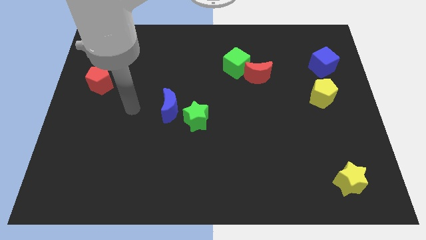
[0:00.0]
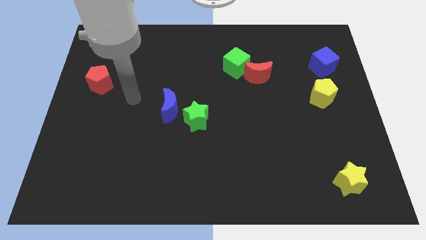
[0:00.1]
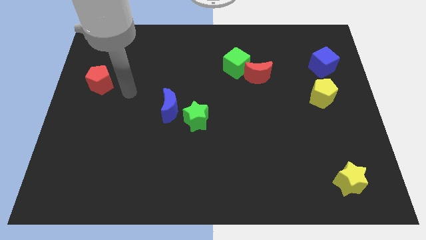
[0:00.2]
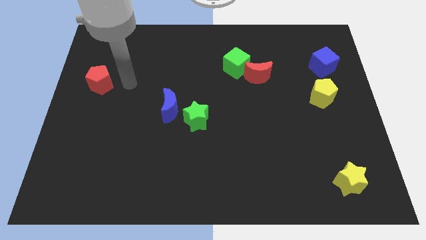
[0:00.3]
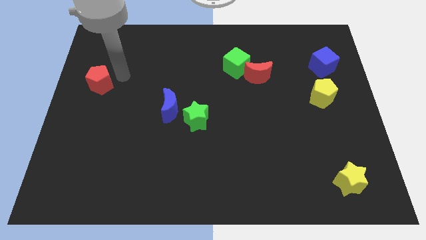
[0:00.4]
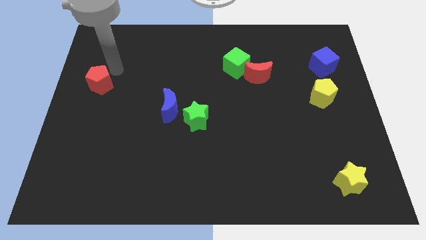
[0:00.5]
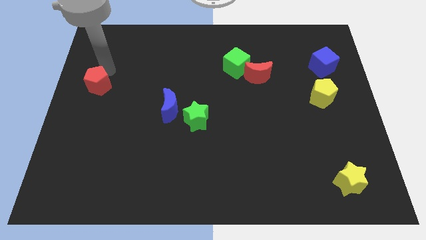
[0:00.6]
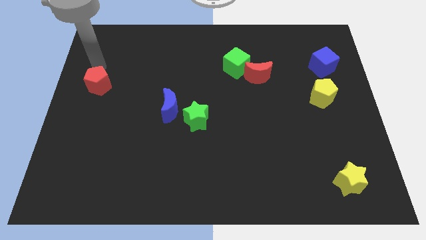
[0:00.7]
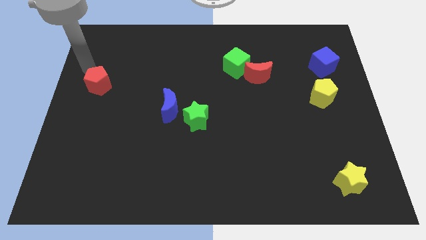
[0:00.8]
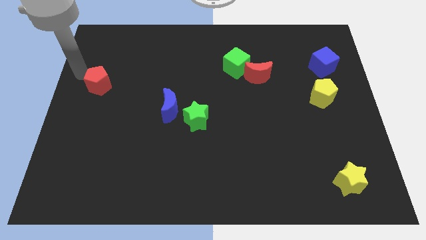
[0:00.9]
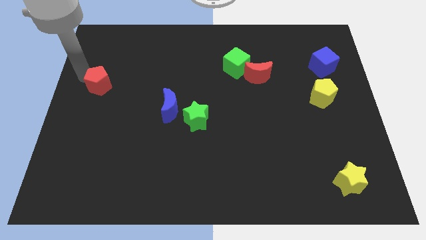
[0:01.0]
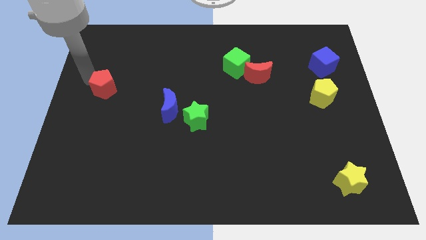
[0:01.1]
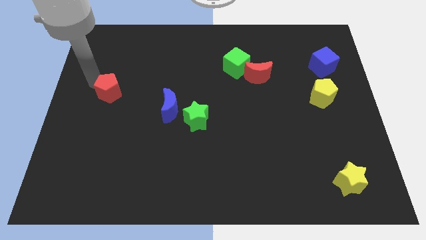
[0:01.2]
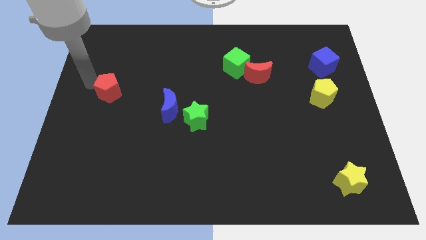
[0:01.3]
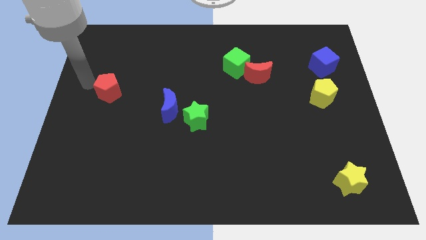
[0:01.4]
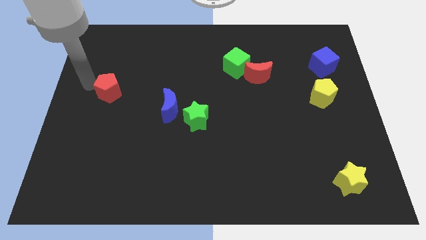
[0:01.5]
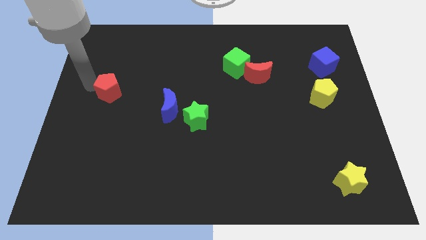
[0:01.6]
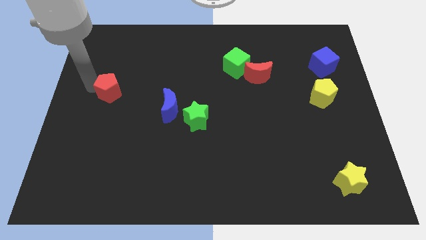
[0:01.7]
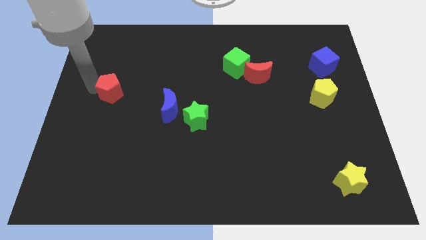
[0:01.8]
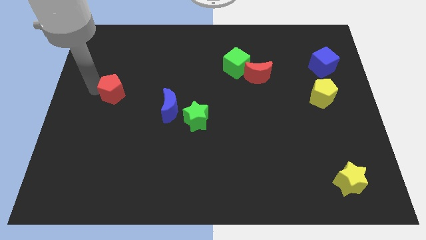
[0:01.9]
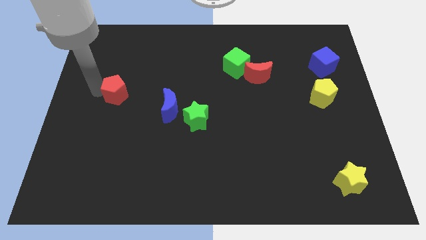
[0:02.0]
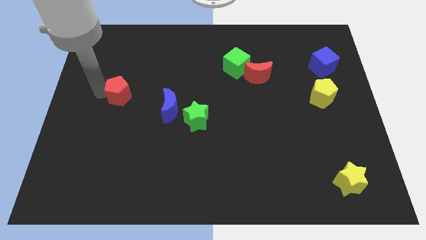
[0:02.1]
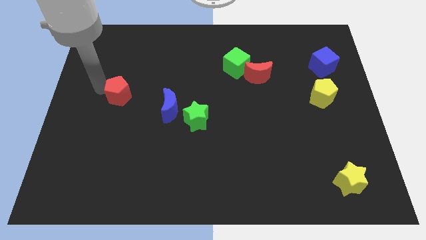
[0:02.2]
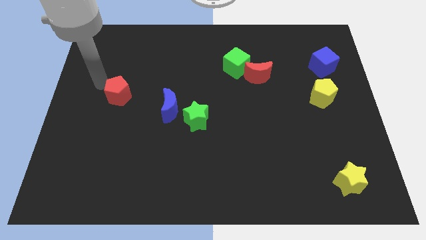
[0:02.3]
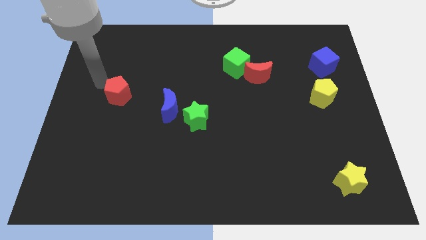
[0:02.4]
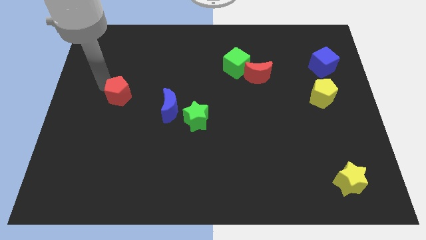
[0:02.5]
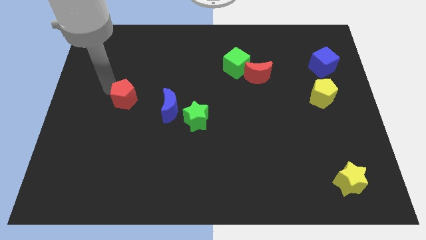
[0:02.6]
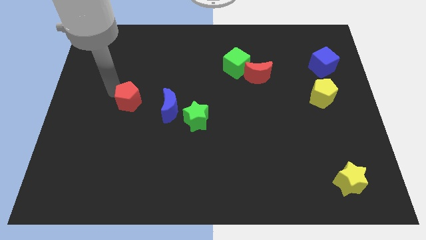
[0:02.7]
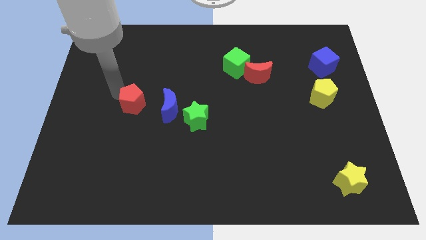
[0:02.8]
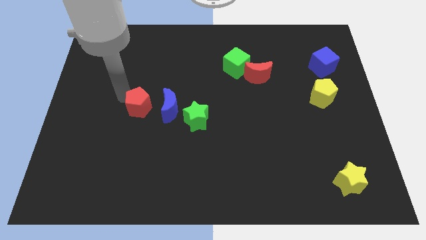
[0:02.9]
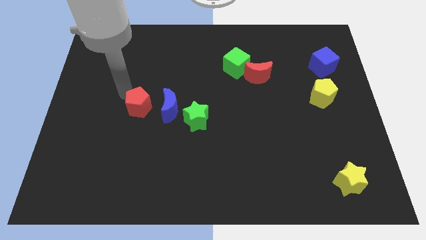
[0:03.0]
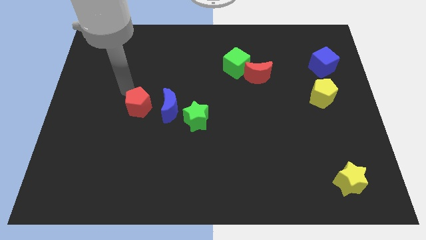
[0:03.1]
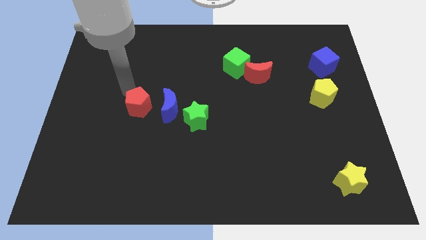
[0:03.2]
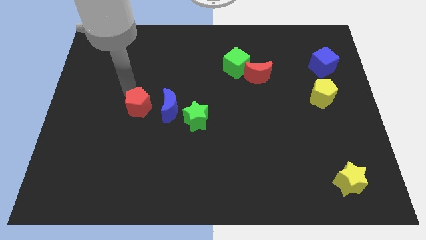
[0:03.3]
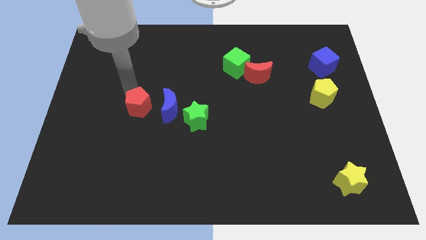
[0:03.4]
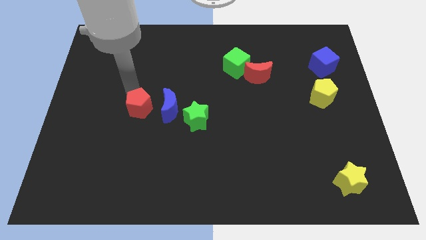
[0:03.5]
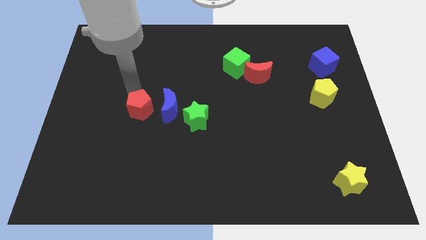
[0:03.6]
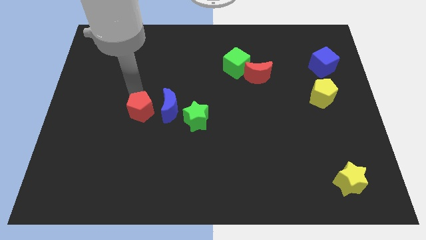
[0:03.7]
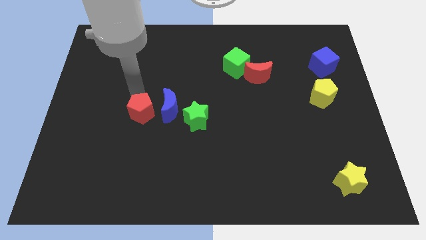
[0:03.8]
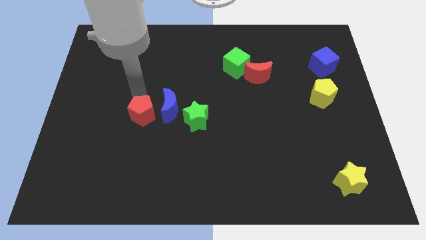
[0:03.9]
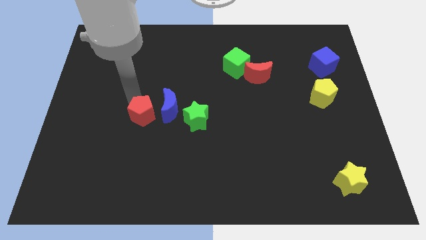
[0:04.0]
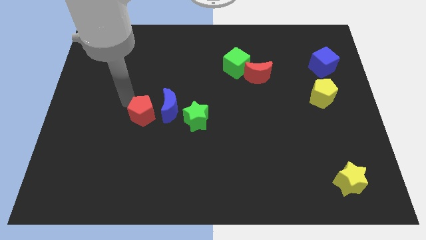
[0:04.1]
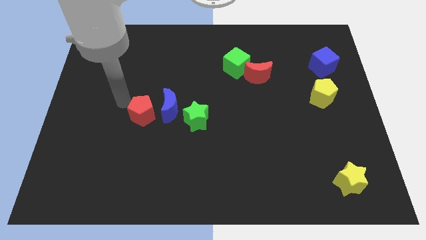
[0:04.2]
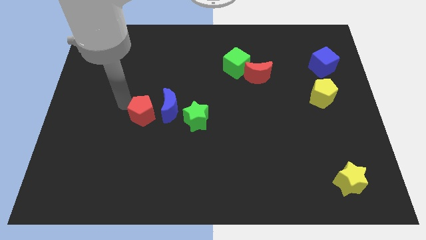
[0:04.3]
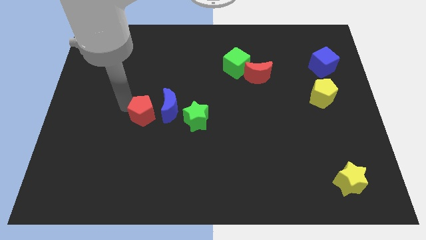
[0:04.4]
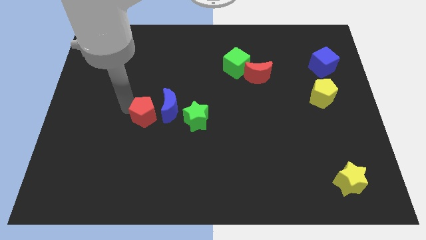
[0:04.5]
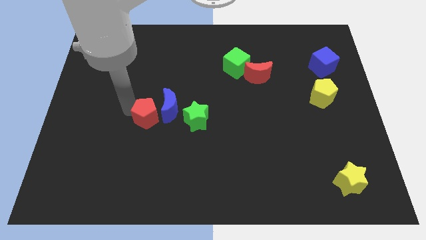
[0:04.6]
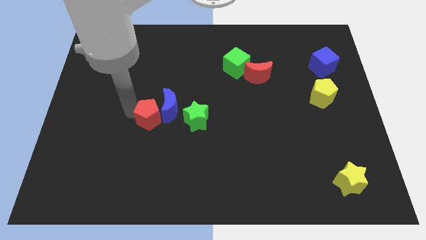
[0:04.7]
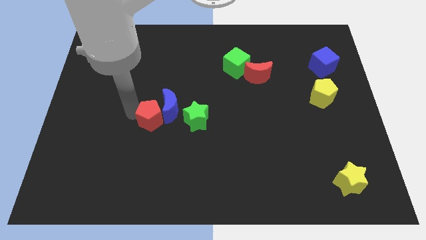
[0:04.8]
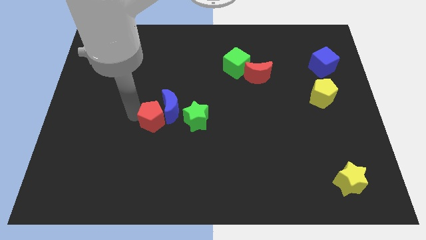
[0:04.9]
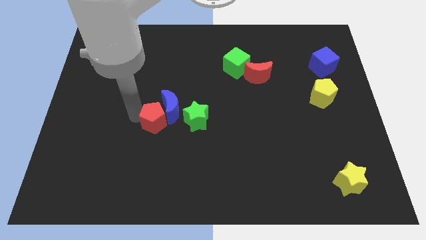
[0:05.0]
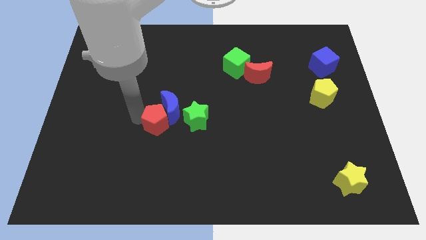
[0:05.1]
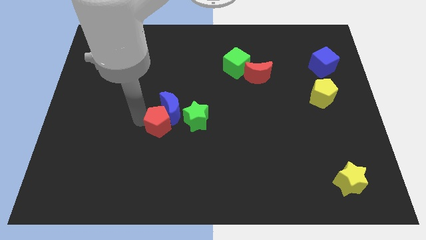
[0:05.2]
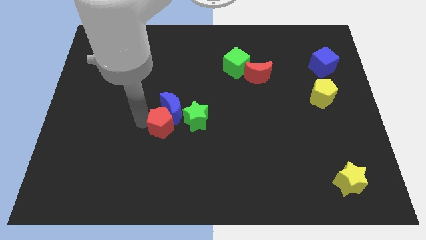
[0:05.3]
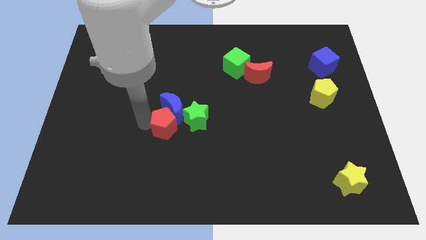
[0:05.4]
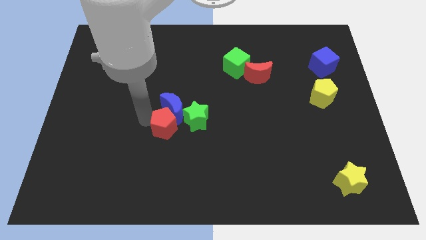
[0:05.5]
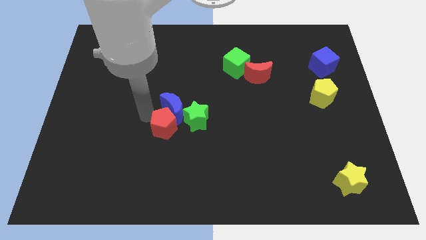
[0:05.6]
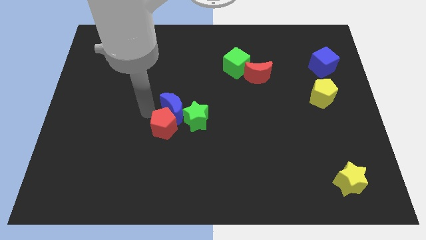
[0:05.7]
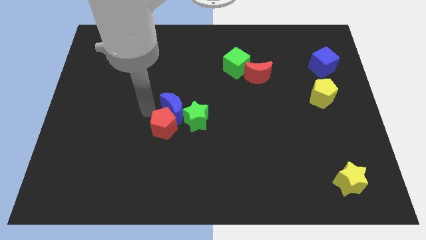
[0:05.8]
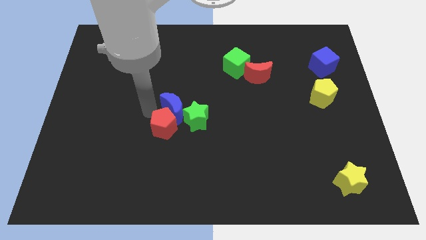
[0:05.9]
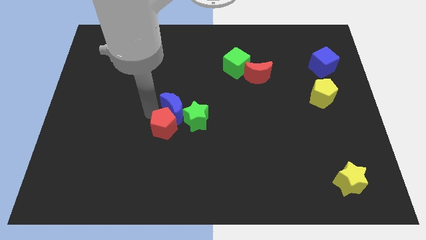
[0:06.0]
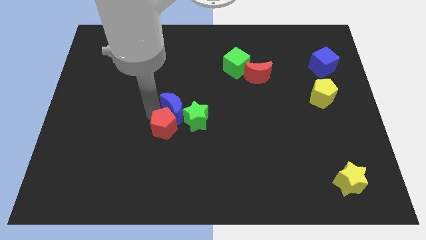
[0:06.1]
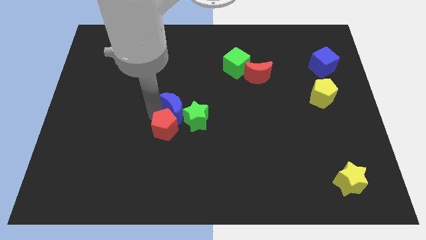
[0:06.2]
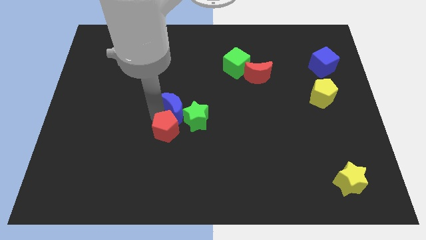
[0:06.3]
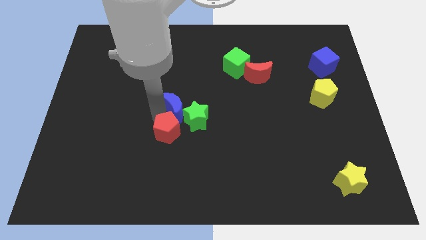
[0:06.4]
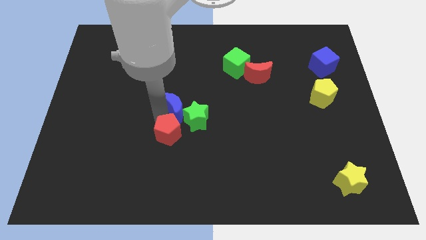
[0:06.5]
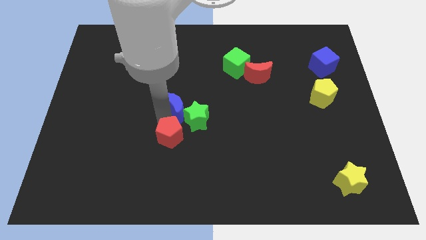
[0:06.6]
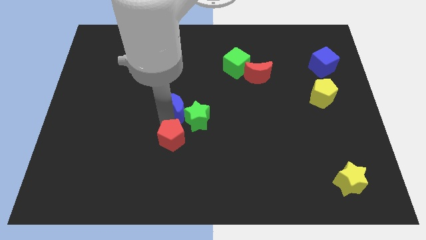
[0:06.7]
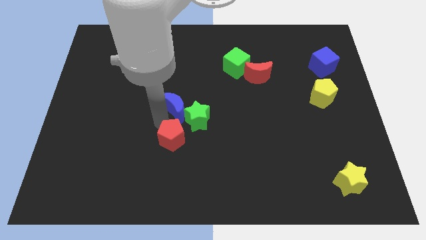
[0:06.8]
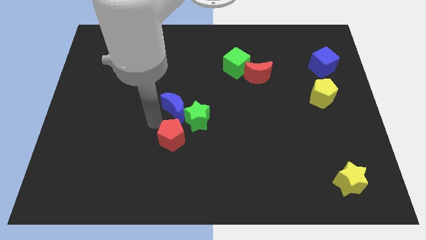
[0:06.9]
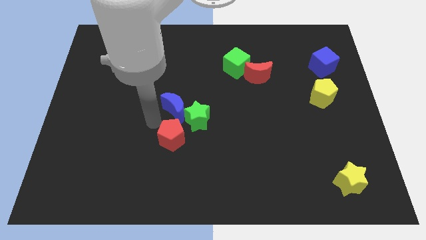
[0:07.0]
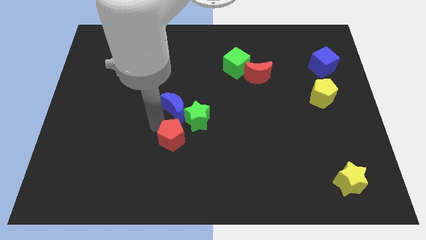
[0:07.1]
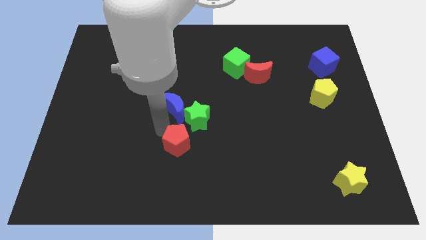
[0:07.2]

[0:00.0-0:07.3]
put the red pentagon to the bottom of the green star
